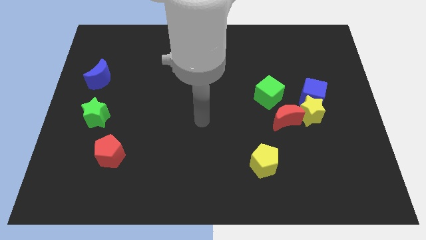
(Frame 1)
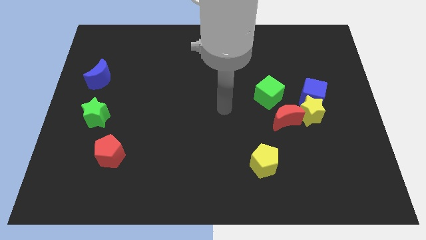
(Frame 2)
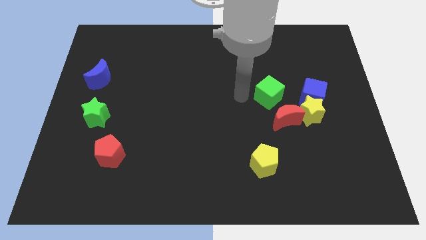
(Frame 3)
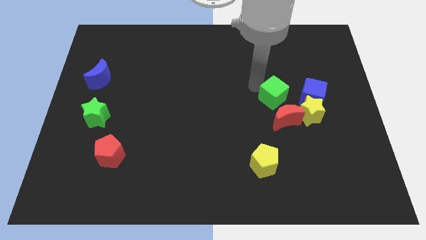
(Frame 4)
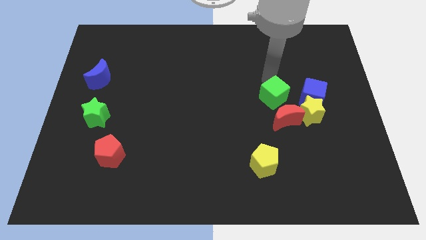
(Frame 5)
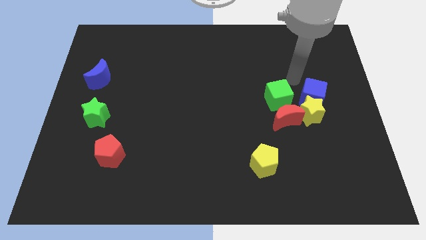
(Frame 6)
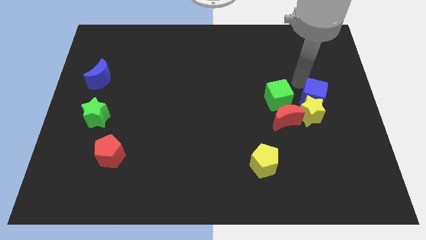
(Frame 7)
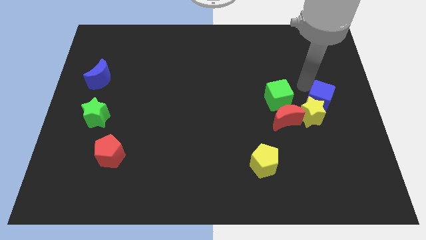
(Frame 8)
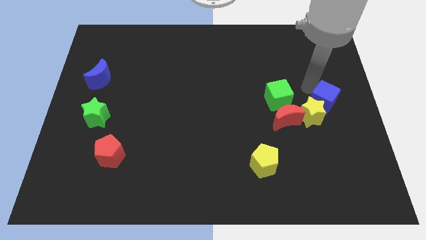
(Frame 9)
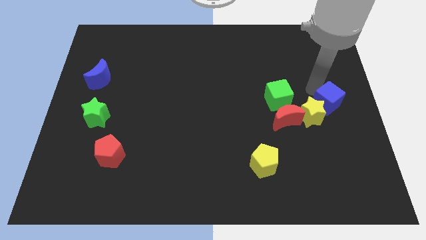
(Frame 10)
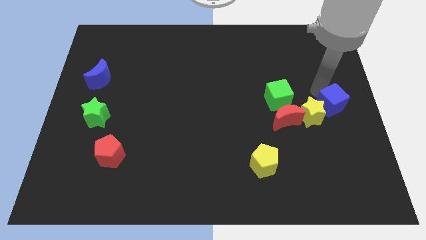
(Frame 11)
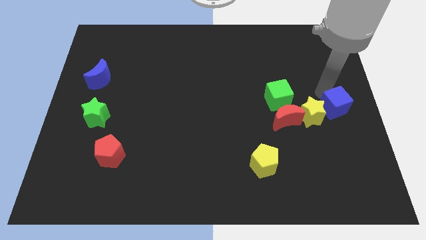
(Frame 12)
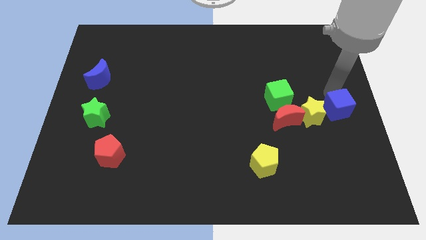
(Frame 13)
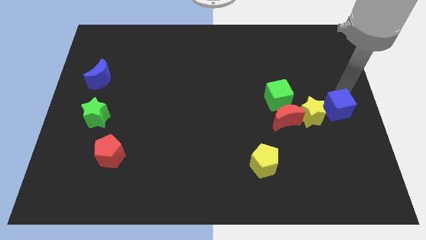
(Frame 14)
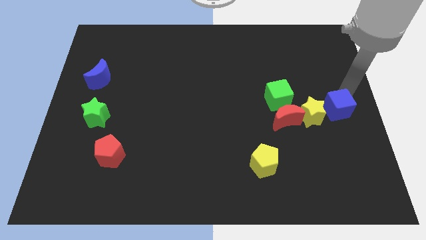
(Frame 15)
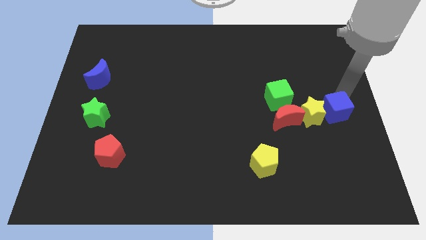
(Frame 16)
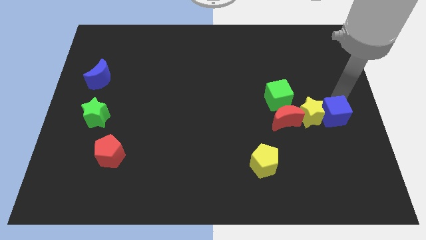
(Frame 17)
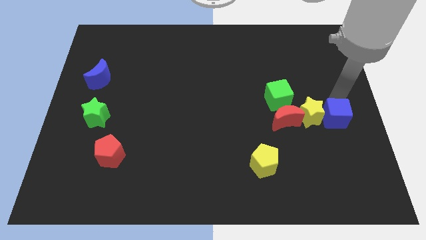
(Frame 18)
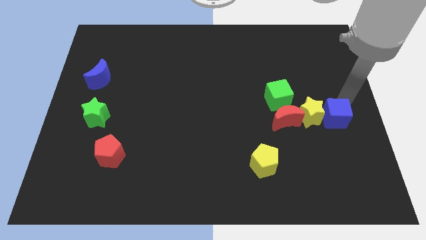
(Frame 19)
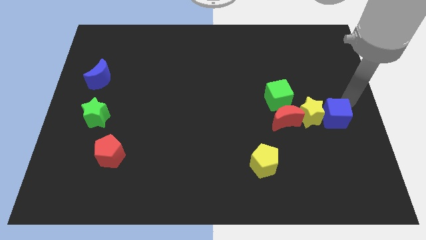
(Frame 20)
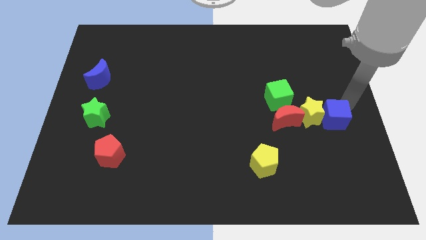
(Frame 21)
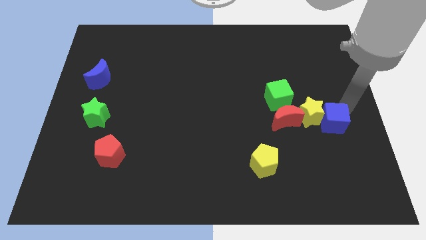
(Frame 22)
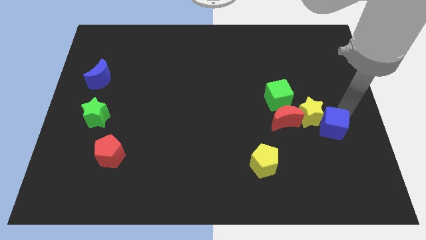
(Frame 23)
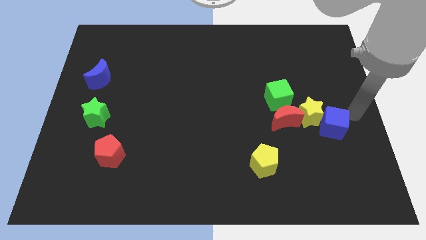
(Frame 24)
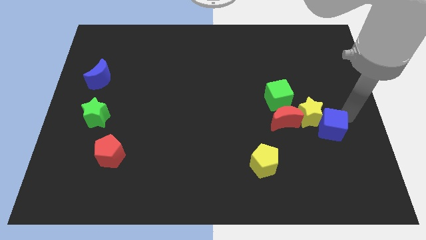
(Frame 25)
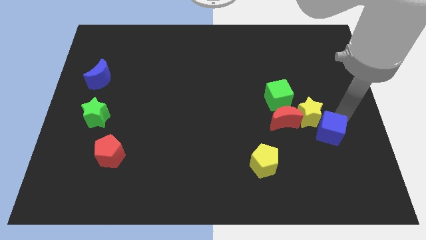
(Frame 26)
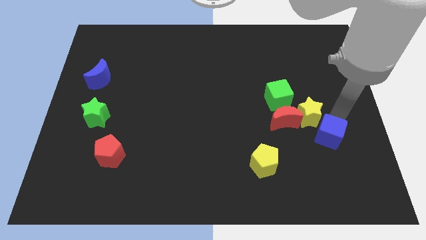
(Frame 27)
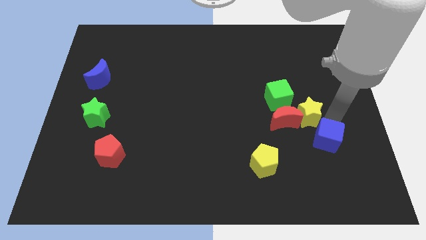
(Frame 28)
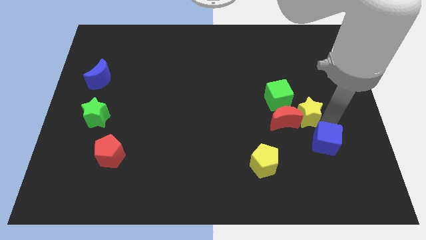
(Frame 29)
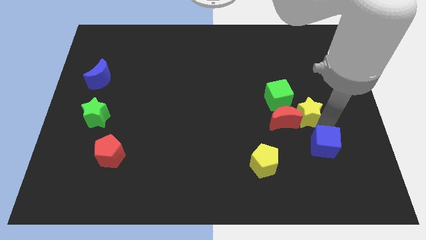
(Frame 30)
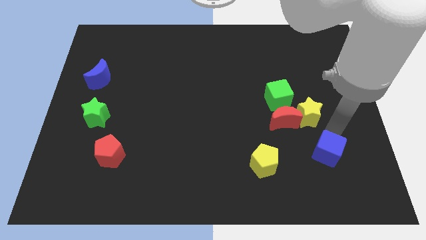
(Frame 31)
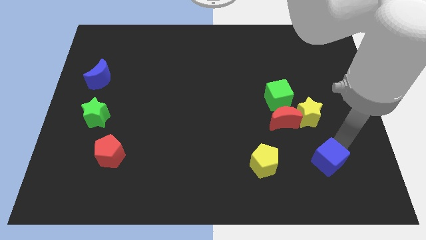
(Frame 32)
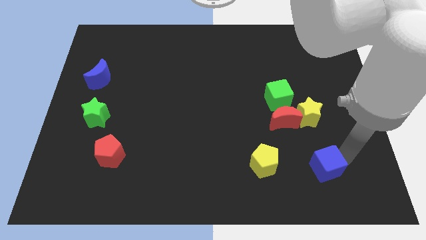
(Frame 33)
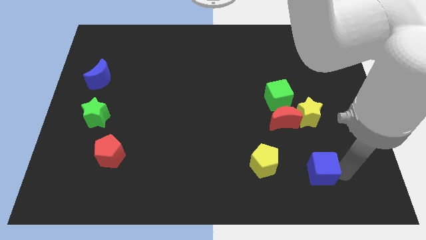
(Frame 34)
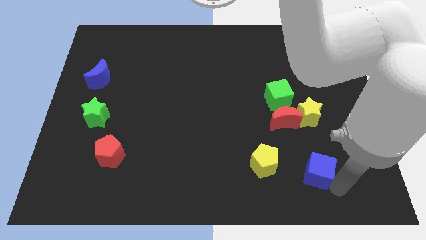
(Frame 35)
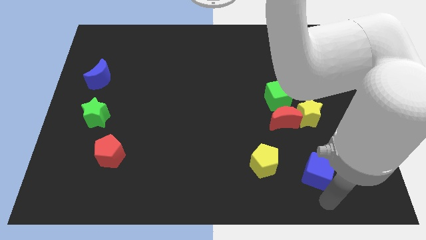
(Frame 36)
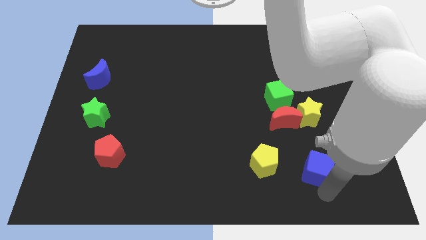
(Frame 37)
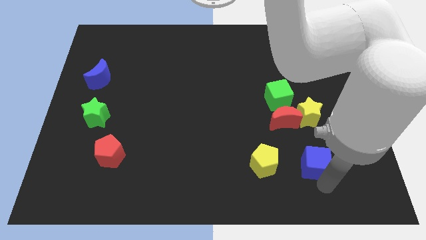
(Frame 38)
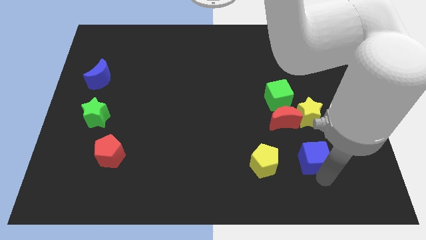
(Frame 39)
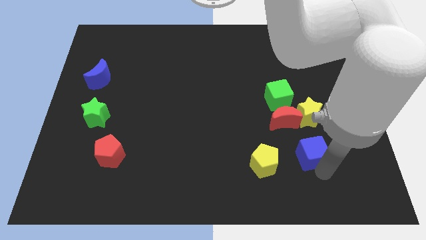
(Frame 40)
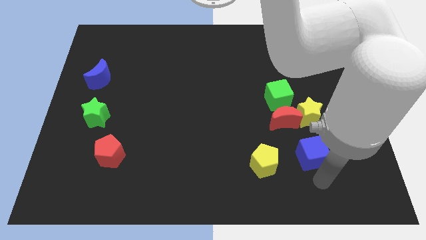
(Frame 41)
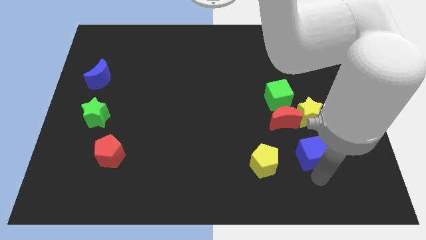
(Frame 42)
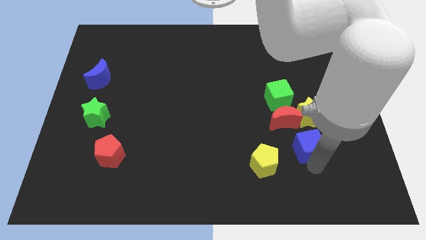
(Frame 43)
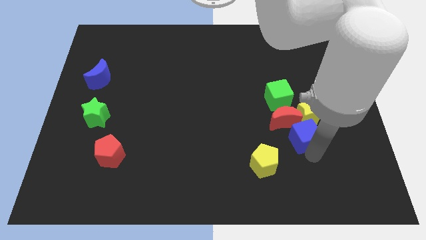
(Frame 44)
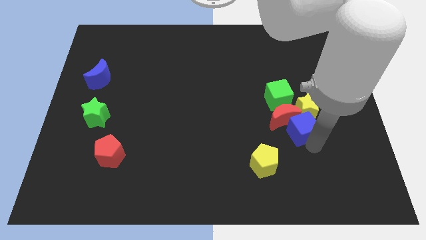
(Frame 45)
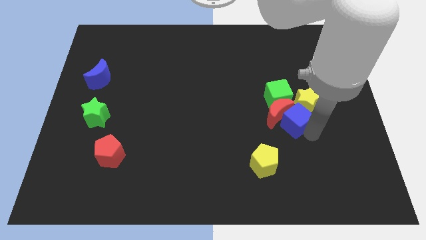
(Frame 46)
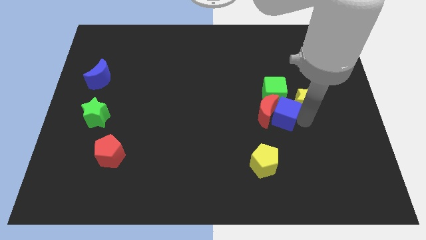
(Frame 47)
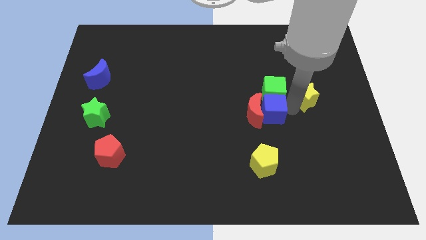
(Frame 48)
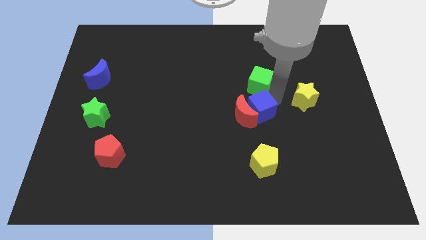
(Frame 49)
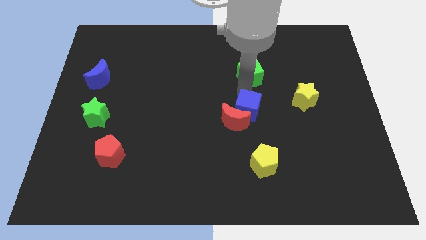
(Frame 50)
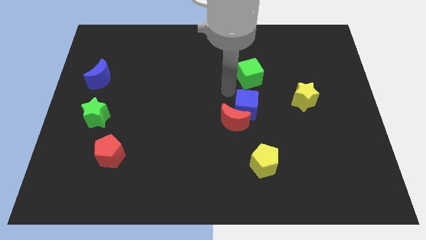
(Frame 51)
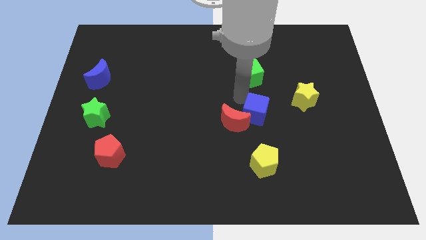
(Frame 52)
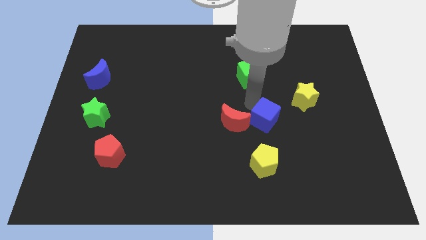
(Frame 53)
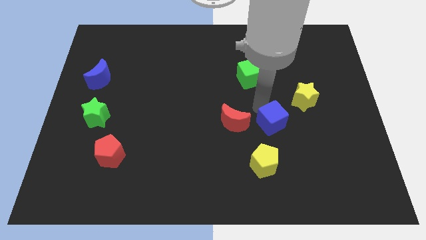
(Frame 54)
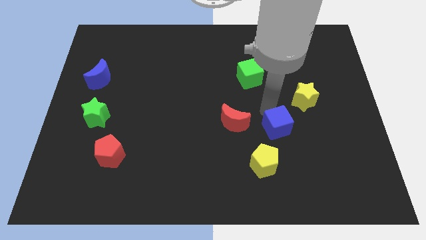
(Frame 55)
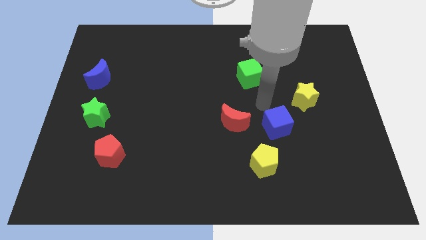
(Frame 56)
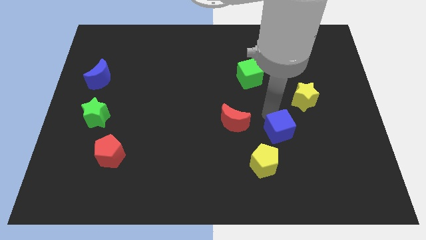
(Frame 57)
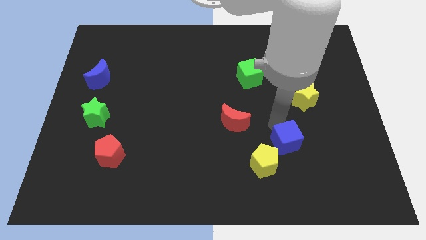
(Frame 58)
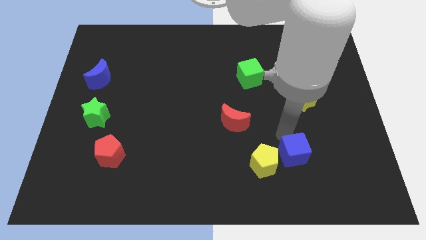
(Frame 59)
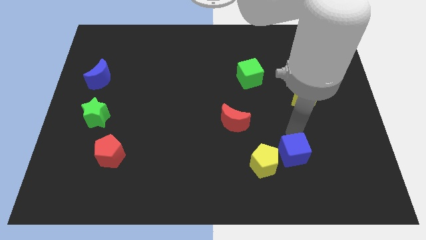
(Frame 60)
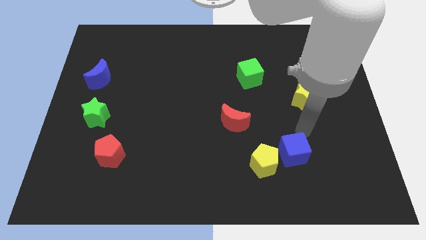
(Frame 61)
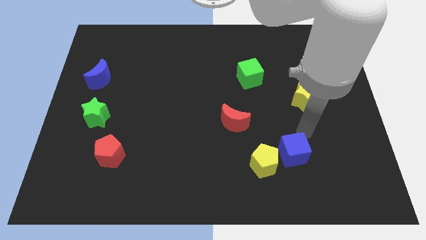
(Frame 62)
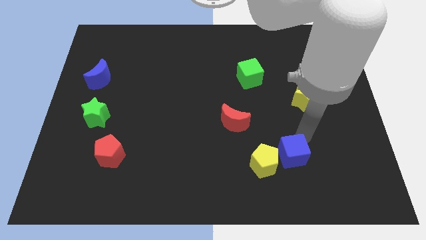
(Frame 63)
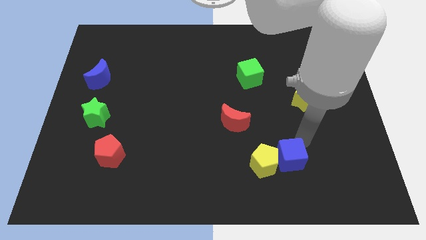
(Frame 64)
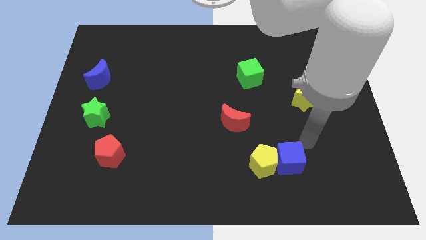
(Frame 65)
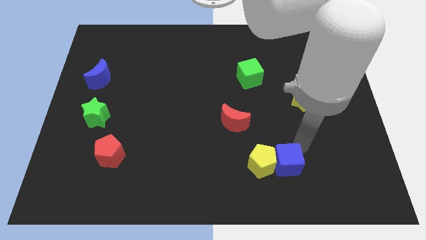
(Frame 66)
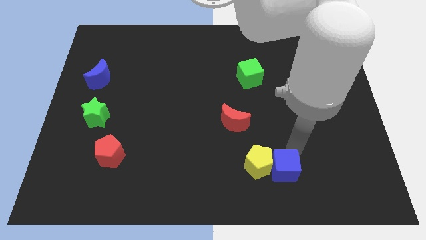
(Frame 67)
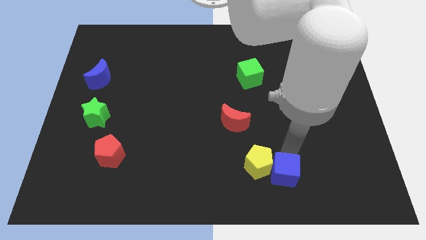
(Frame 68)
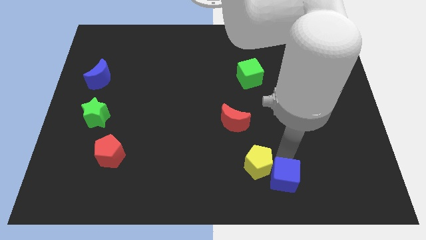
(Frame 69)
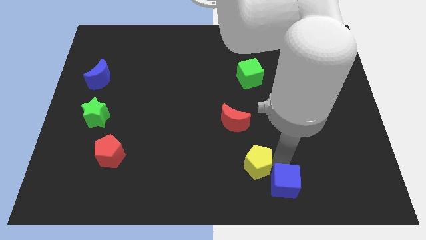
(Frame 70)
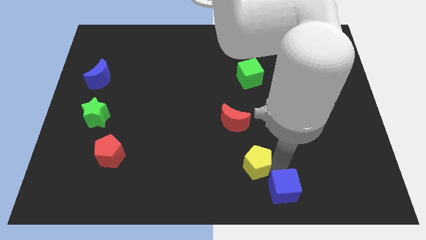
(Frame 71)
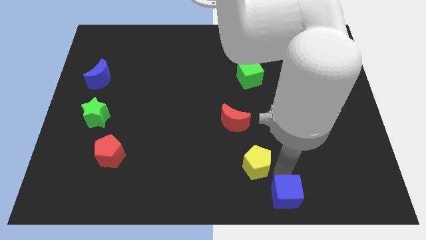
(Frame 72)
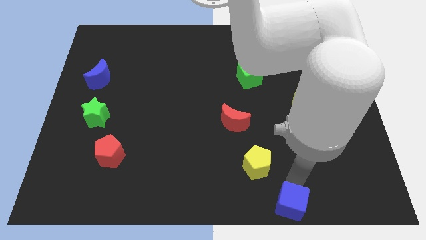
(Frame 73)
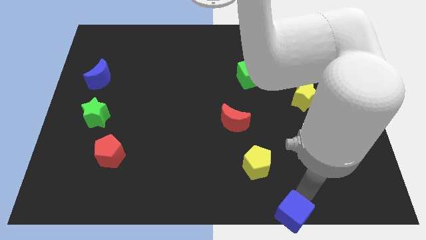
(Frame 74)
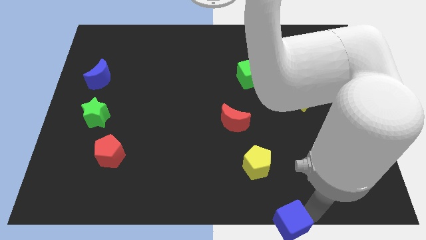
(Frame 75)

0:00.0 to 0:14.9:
put the blue cube to the bottom side
